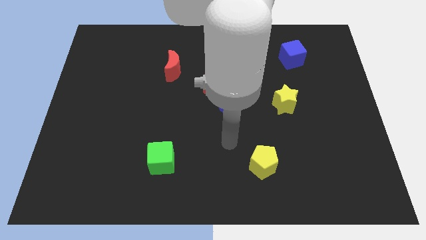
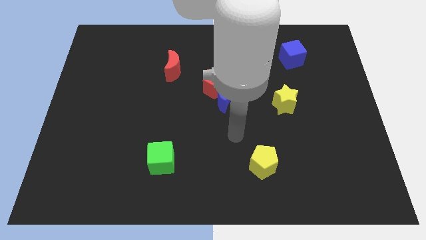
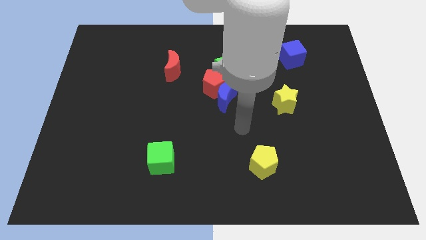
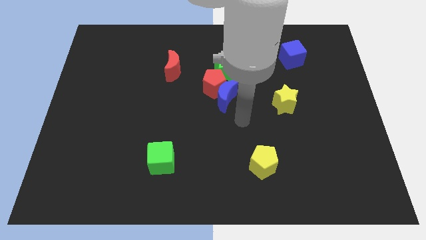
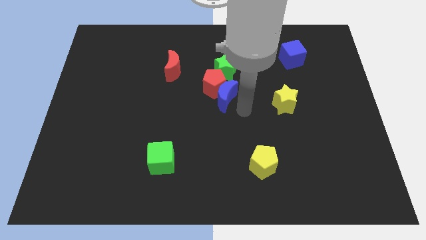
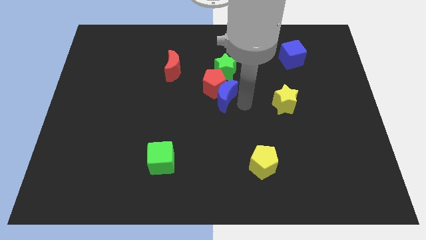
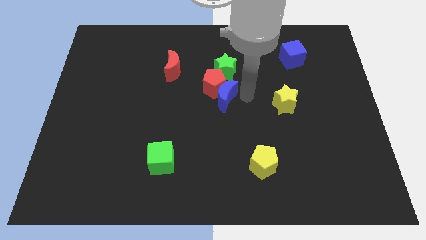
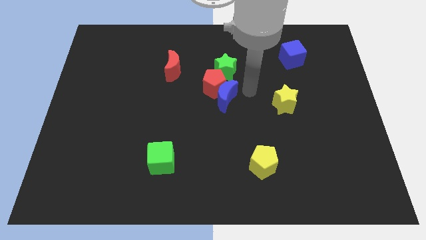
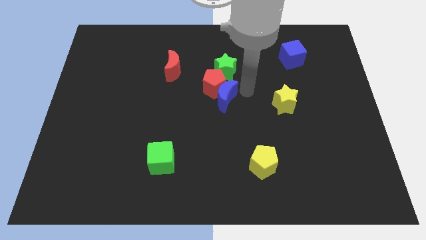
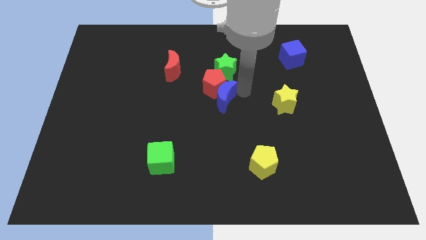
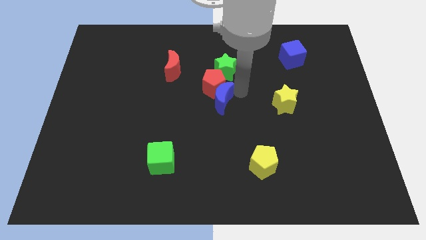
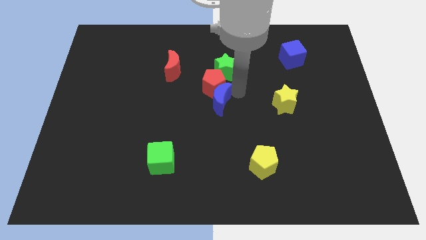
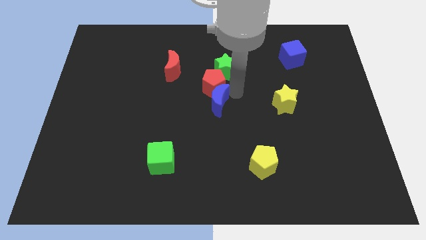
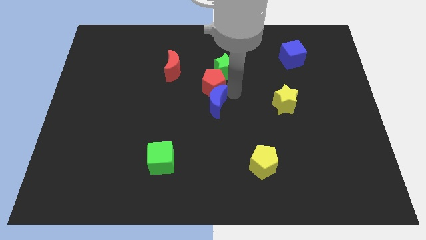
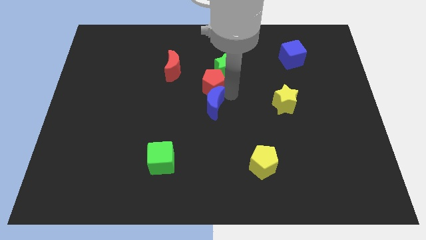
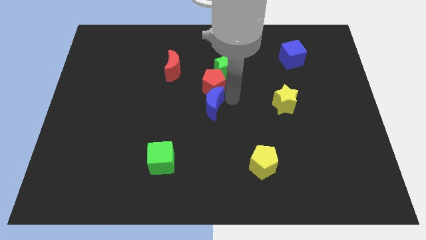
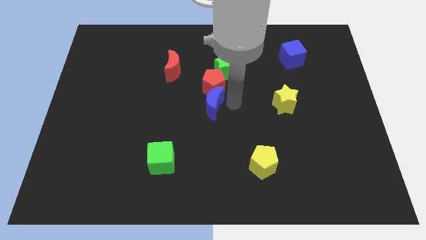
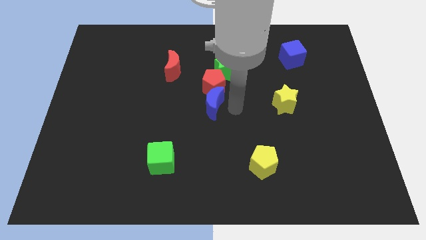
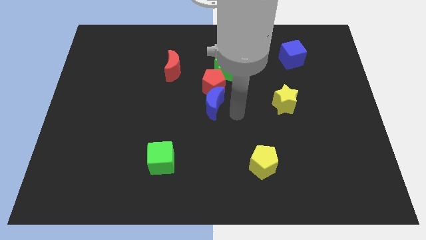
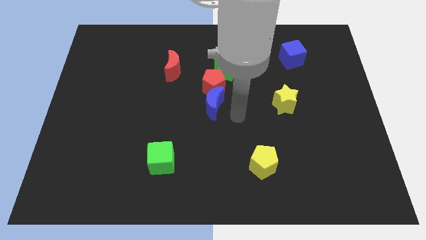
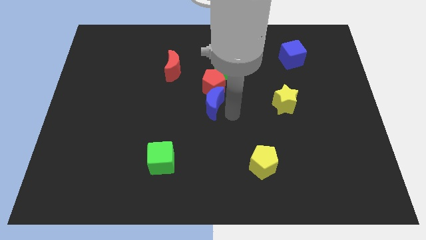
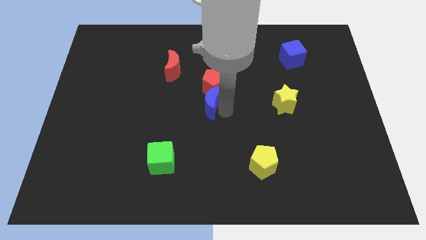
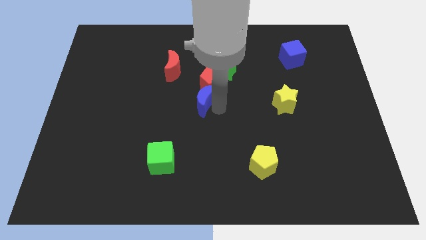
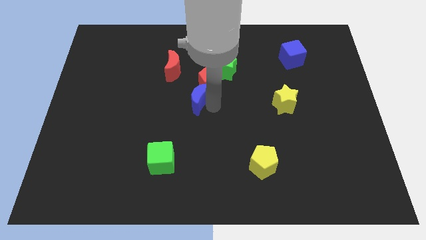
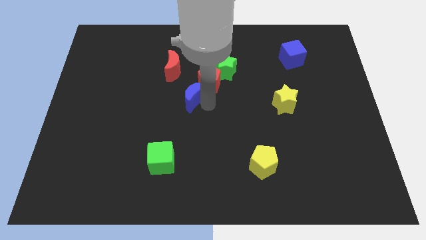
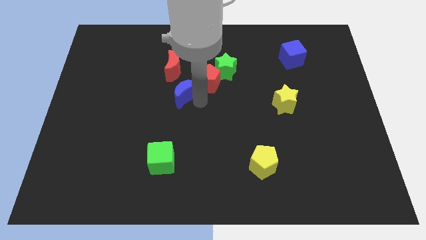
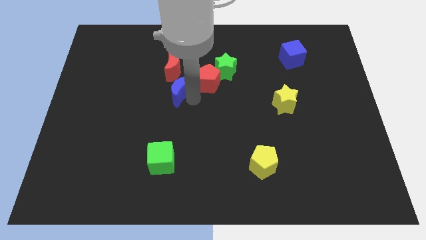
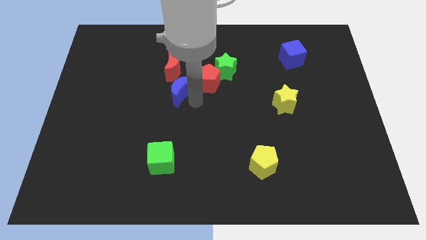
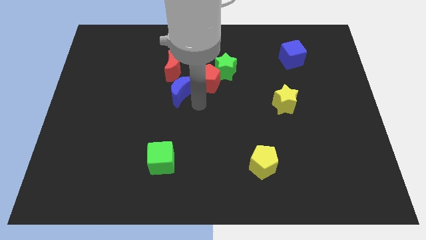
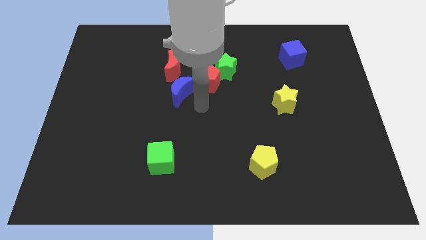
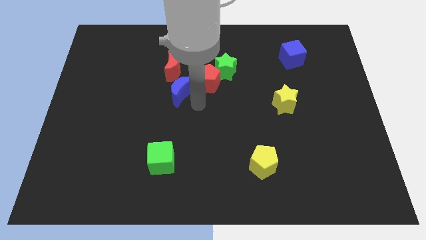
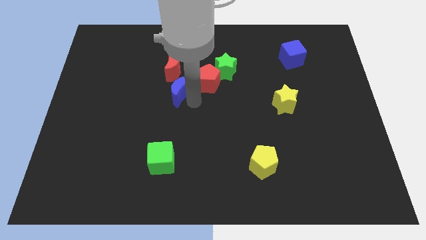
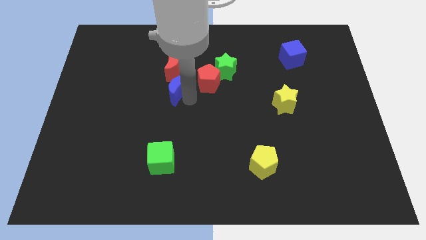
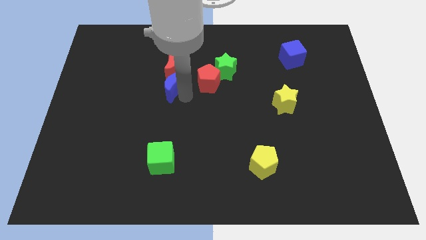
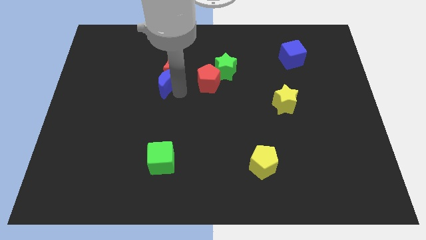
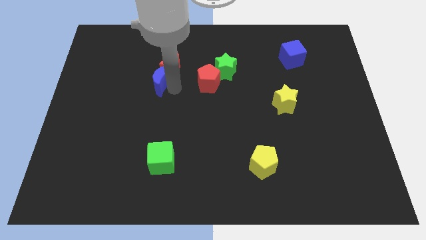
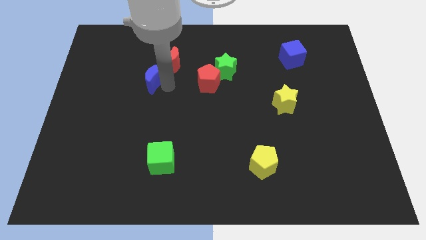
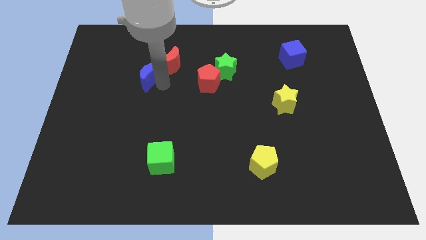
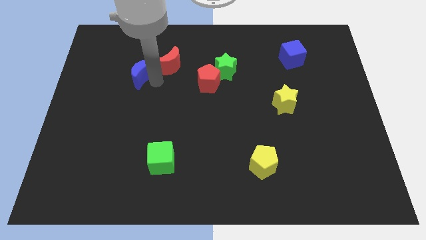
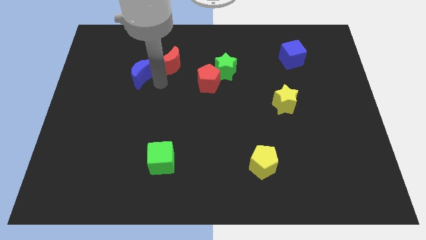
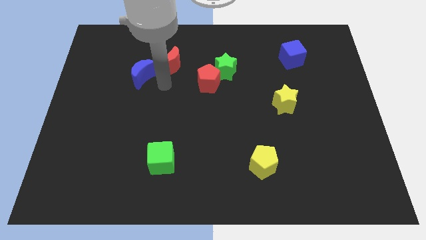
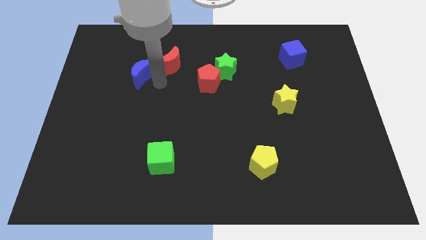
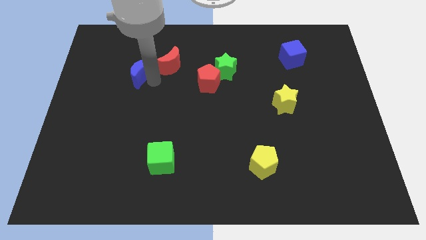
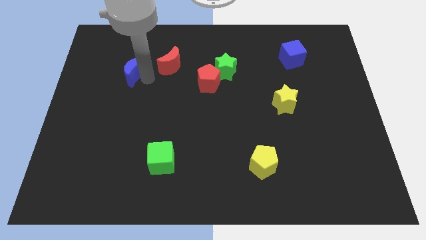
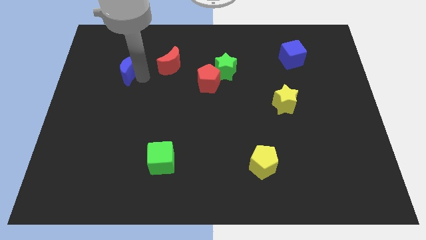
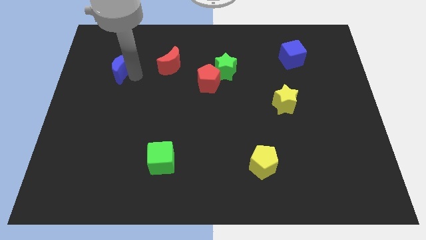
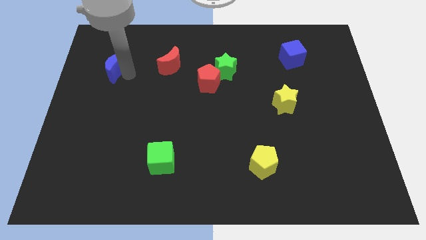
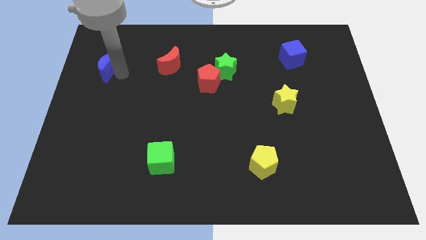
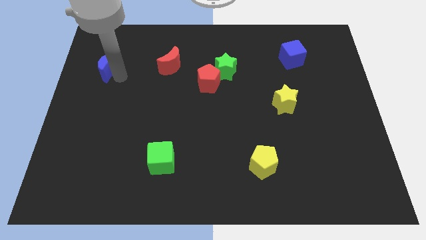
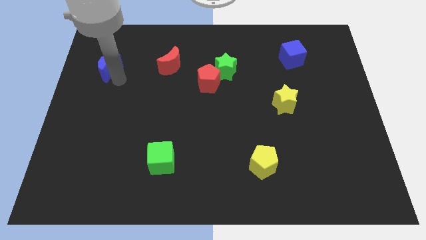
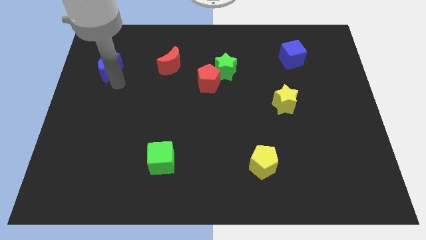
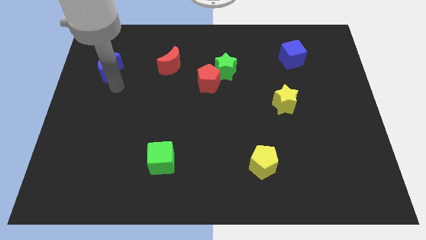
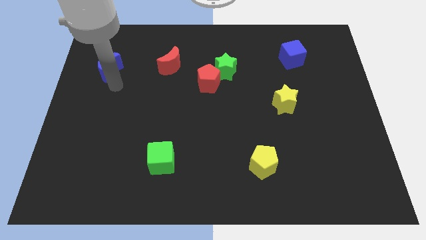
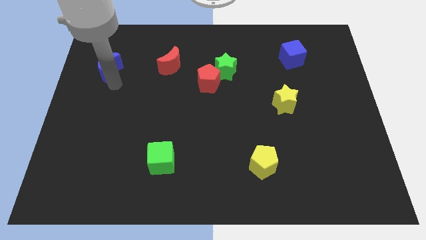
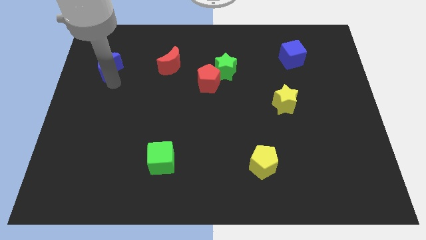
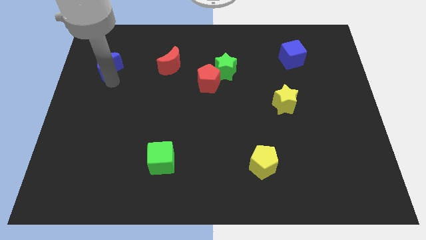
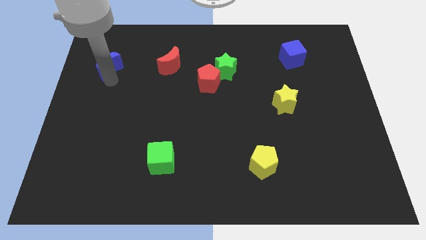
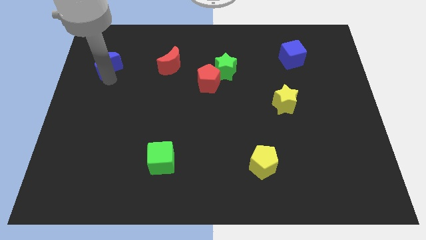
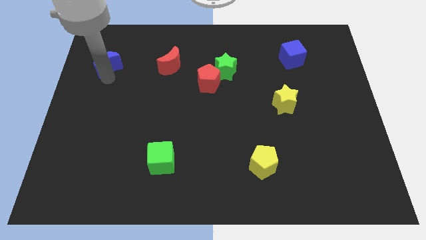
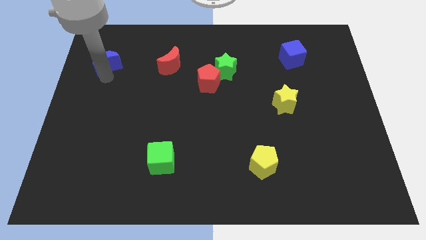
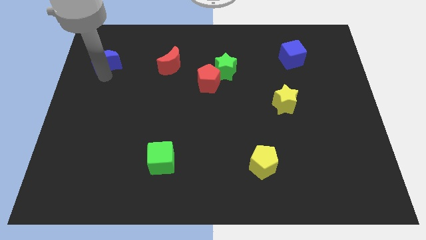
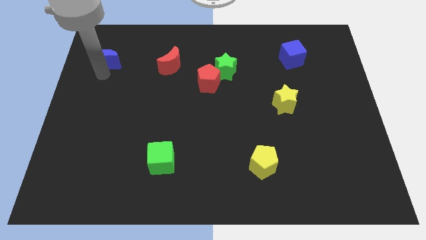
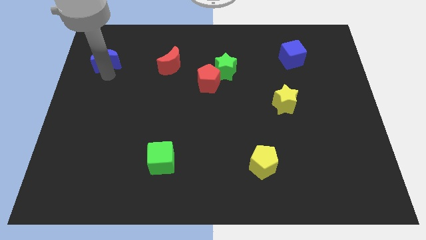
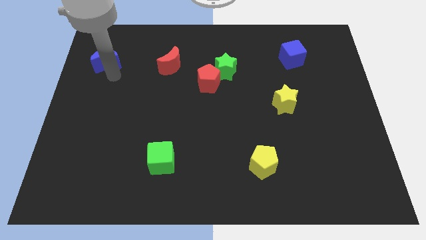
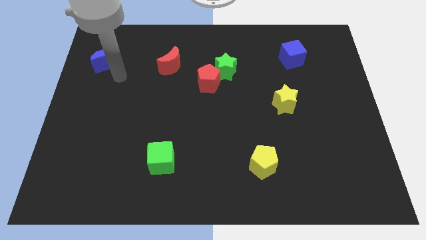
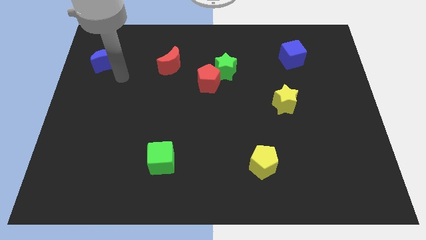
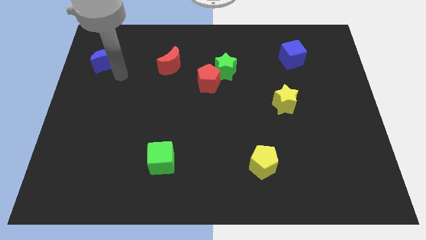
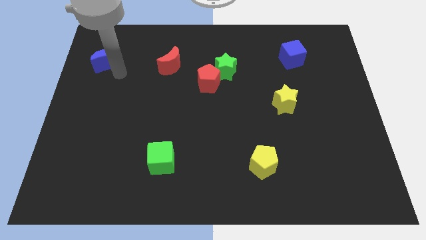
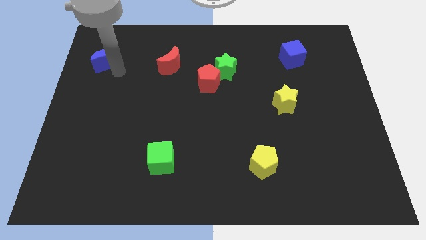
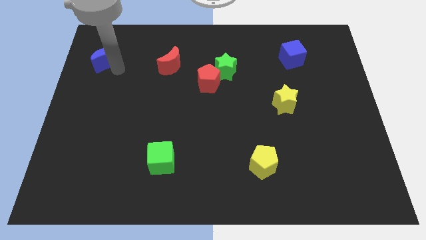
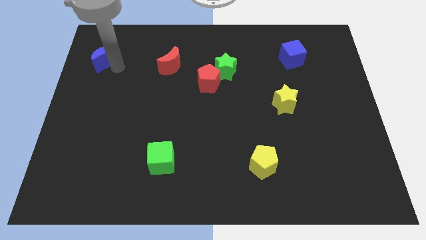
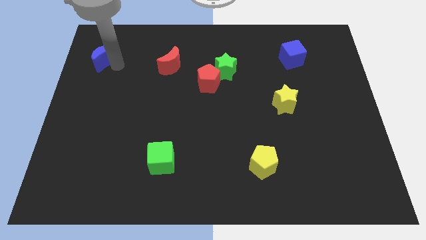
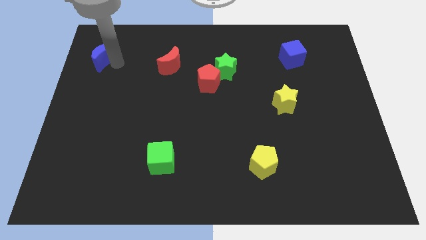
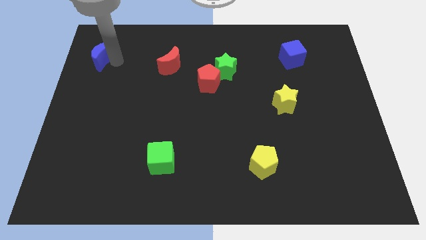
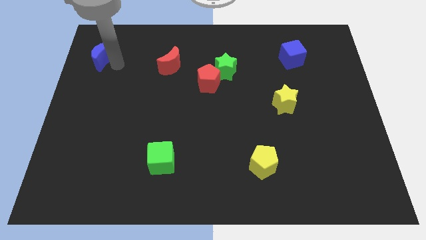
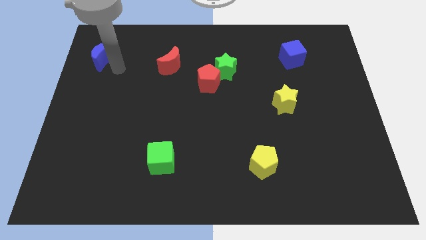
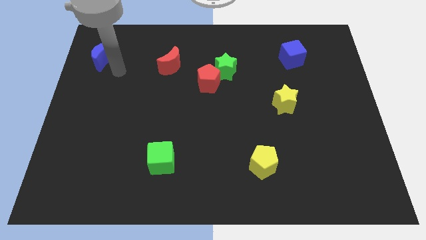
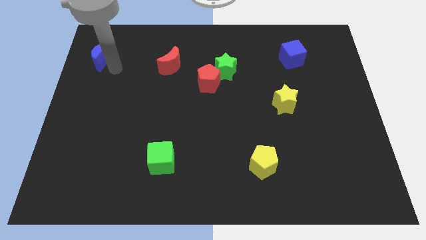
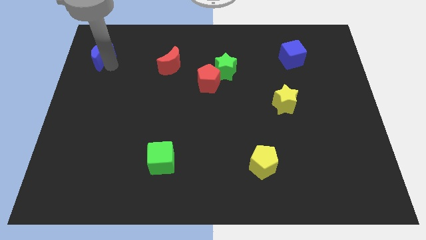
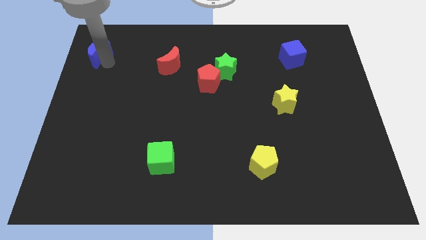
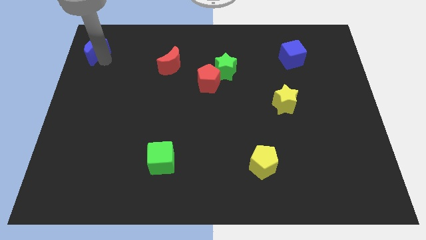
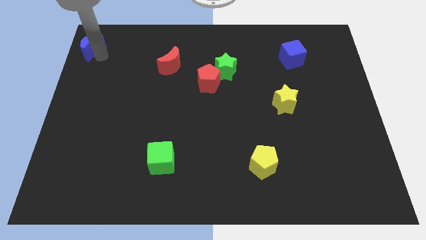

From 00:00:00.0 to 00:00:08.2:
move the blue moon to the top left
